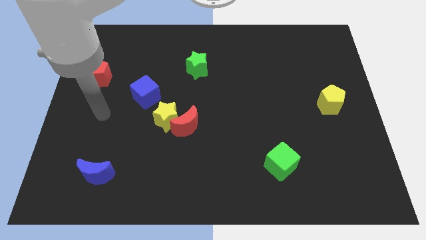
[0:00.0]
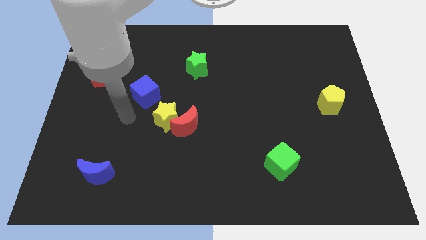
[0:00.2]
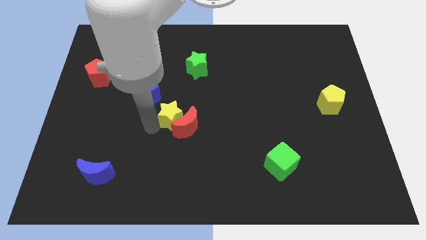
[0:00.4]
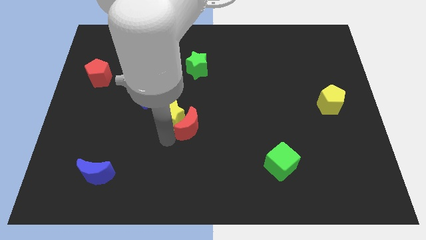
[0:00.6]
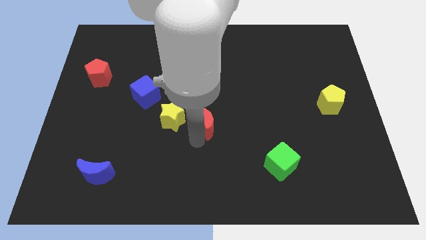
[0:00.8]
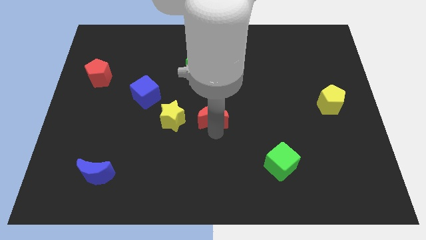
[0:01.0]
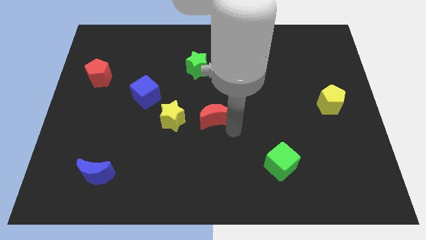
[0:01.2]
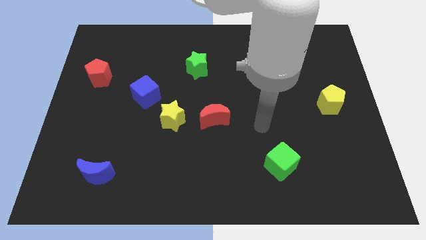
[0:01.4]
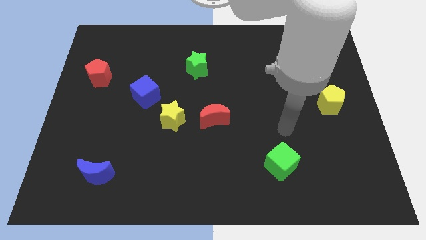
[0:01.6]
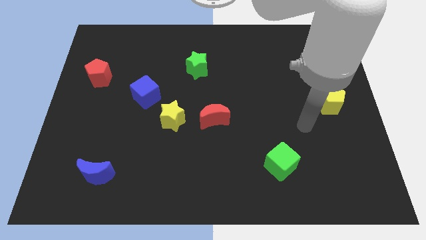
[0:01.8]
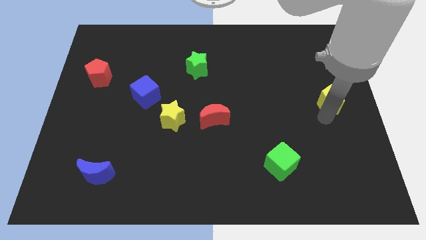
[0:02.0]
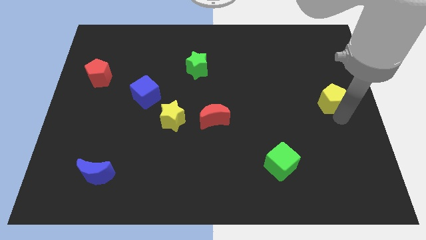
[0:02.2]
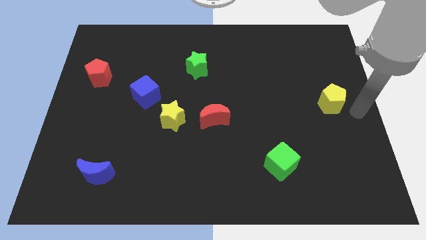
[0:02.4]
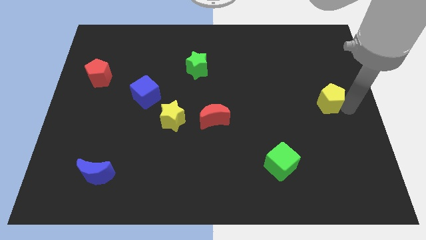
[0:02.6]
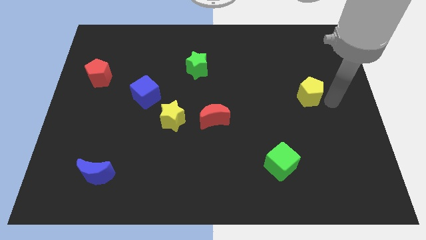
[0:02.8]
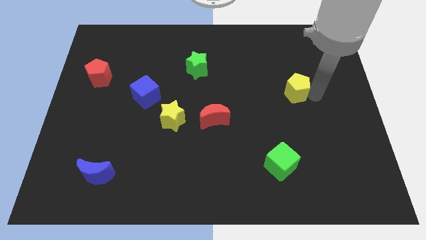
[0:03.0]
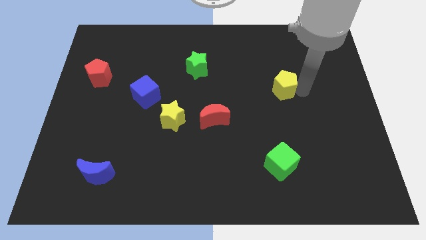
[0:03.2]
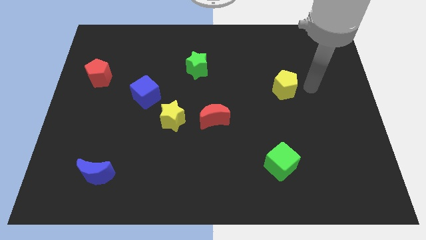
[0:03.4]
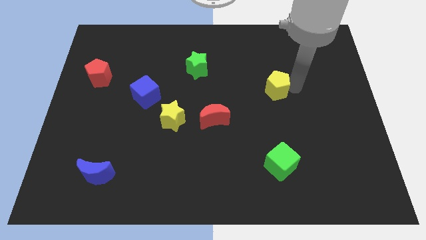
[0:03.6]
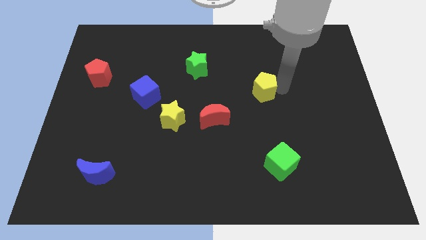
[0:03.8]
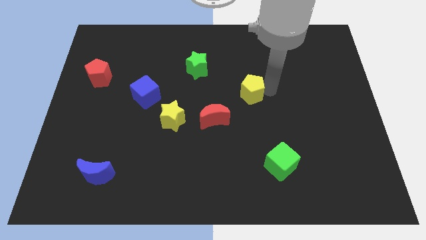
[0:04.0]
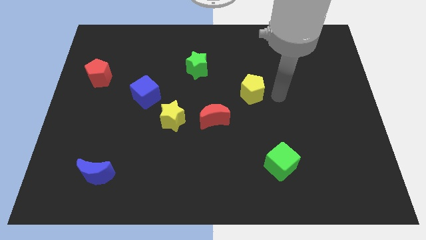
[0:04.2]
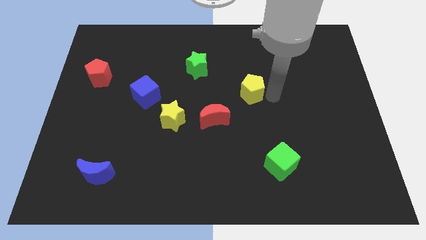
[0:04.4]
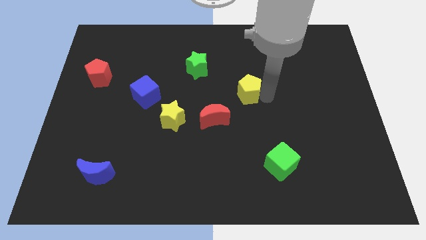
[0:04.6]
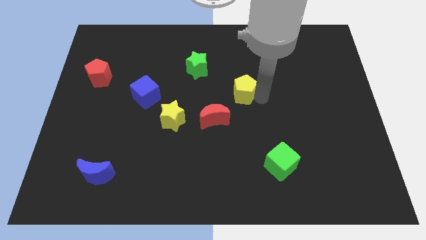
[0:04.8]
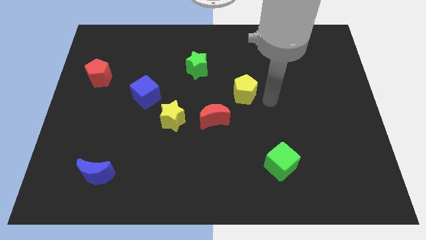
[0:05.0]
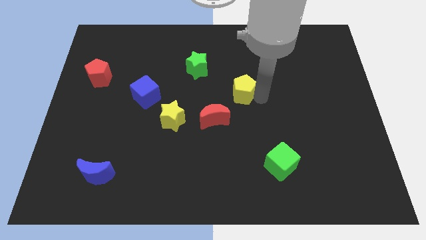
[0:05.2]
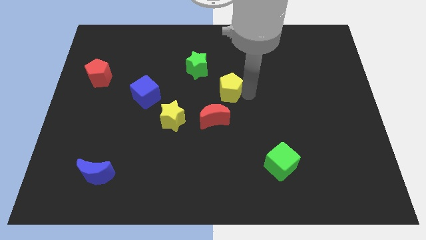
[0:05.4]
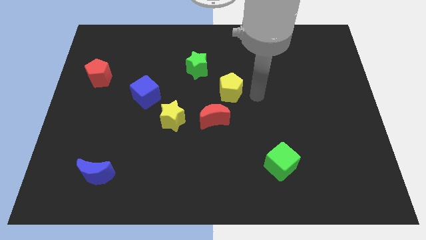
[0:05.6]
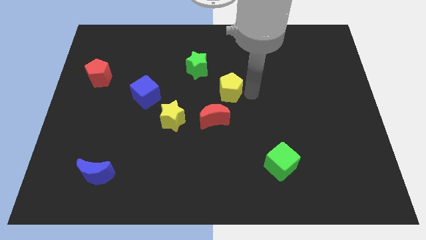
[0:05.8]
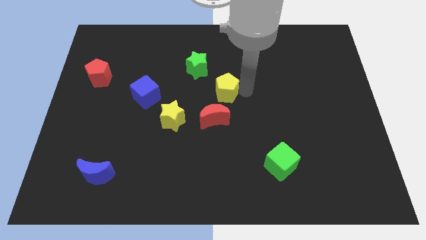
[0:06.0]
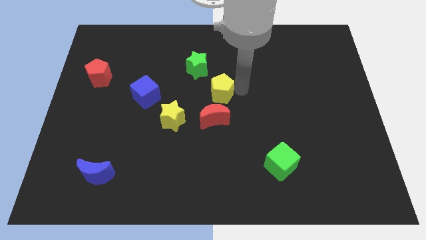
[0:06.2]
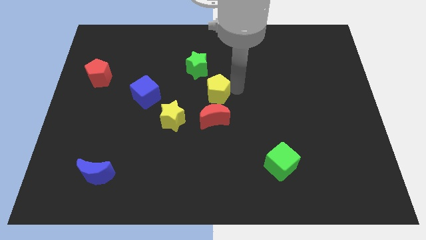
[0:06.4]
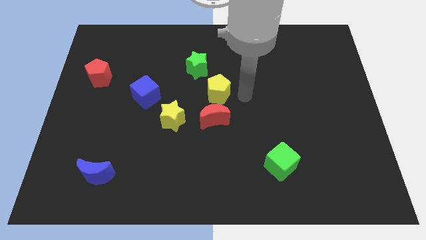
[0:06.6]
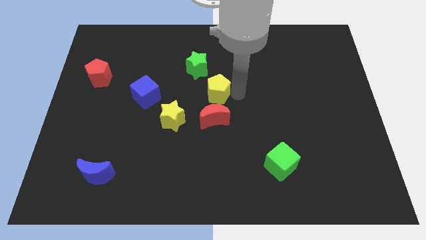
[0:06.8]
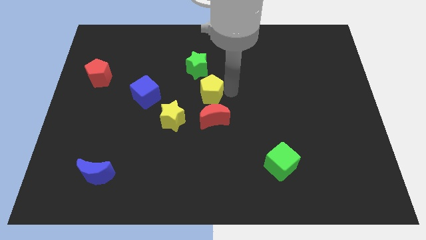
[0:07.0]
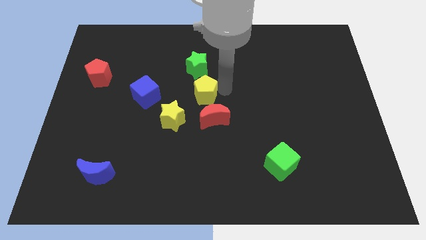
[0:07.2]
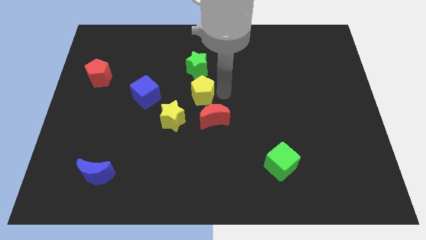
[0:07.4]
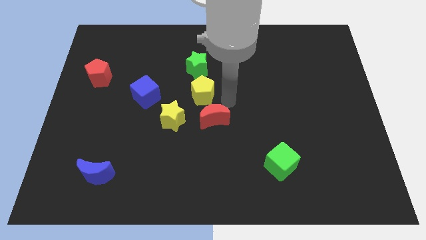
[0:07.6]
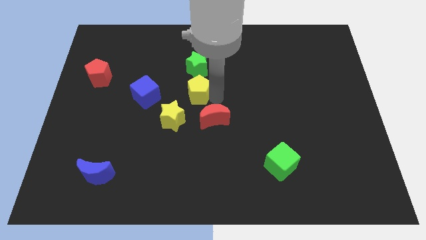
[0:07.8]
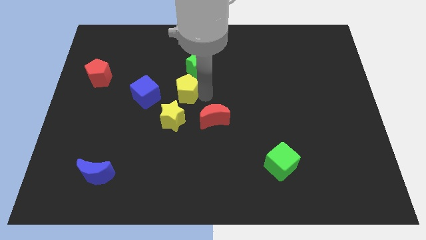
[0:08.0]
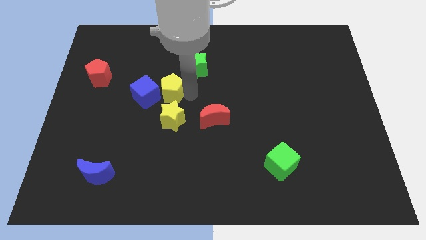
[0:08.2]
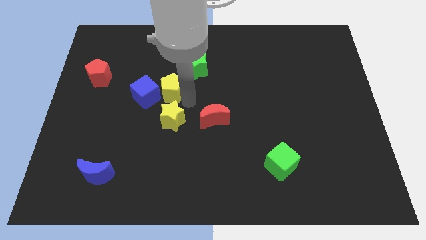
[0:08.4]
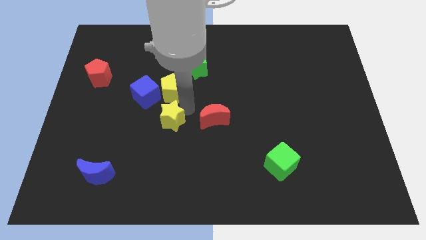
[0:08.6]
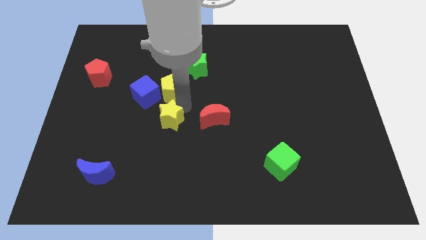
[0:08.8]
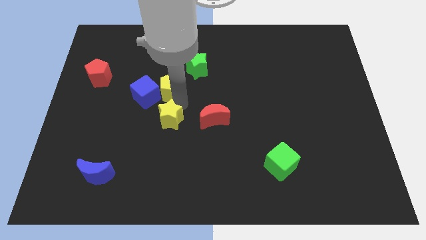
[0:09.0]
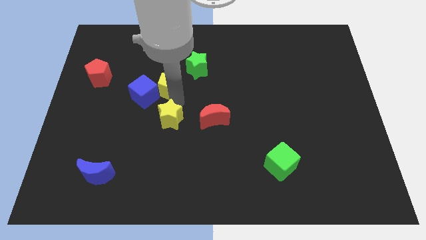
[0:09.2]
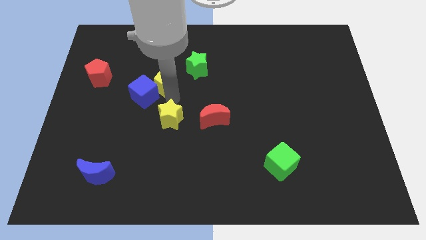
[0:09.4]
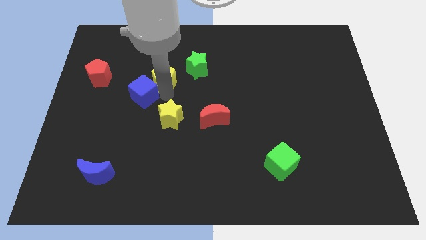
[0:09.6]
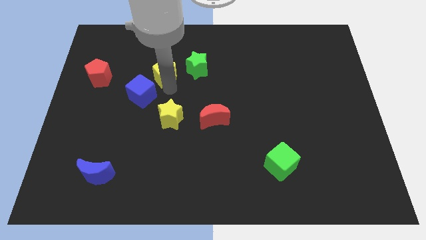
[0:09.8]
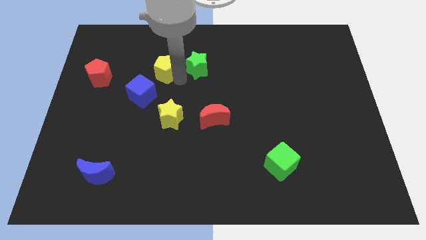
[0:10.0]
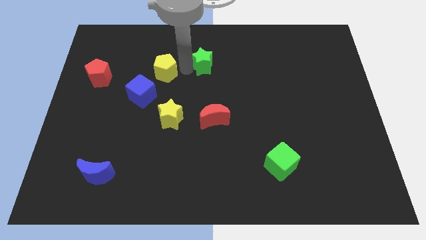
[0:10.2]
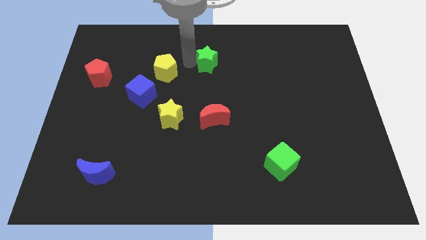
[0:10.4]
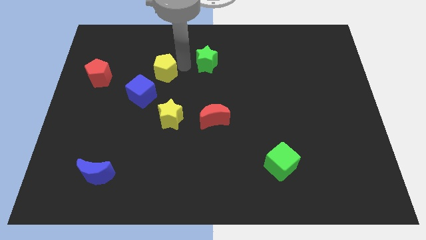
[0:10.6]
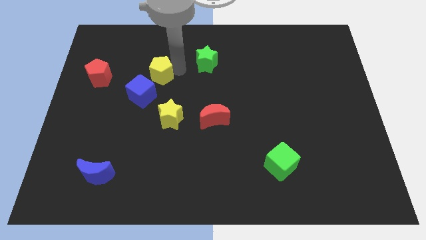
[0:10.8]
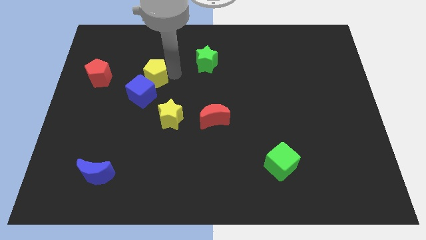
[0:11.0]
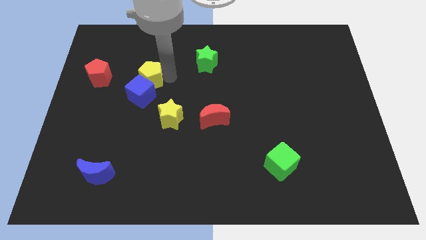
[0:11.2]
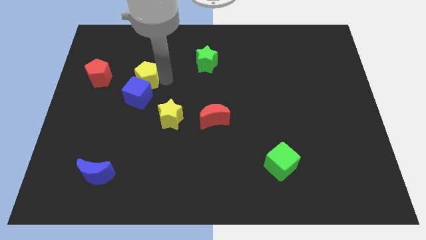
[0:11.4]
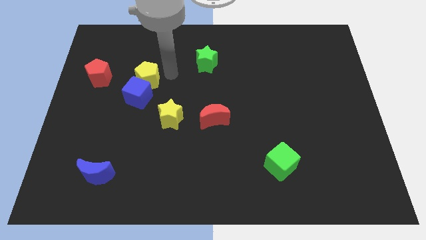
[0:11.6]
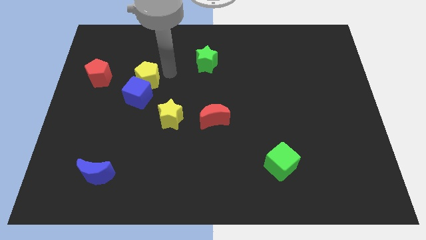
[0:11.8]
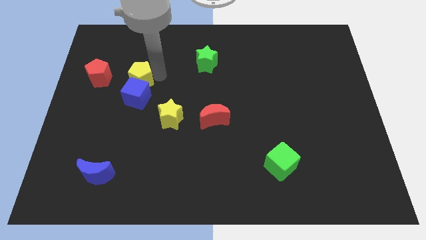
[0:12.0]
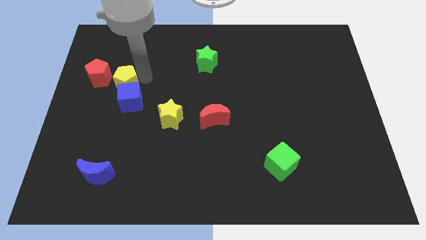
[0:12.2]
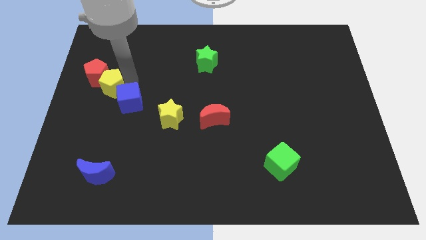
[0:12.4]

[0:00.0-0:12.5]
push the yellow pentagon just left of the blue cube
